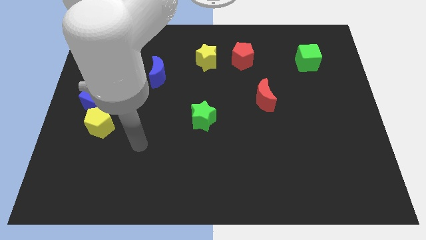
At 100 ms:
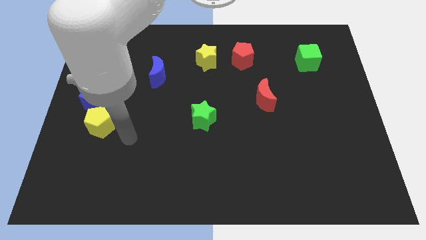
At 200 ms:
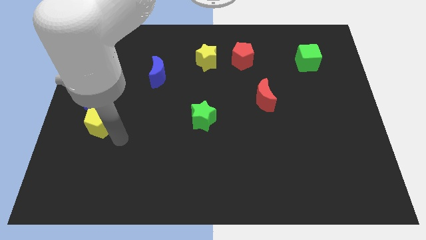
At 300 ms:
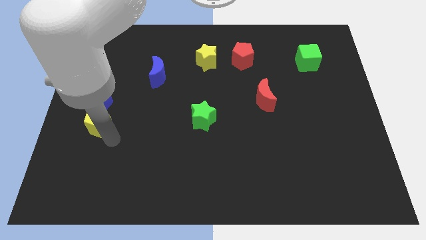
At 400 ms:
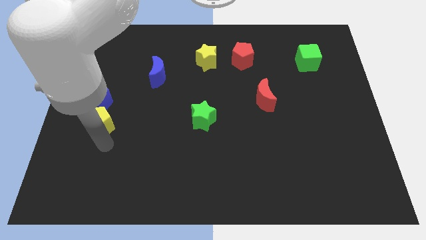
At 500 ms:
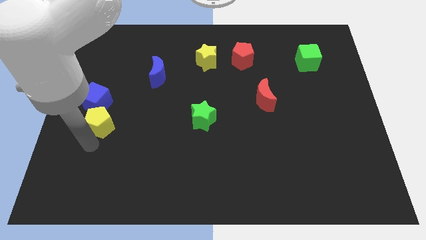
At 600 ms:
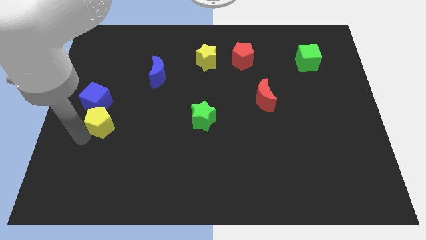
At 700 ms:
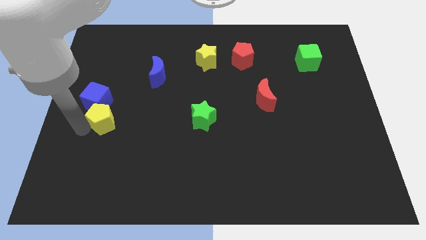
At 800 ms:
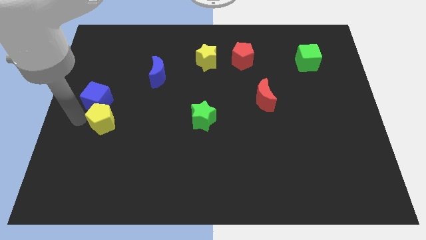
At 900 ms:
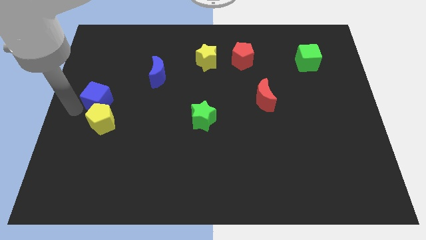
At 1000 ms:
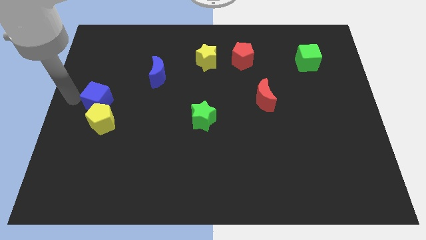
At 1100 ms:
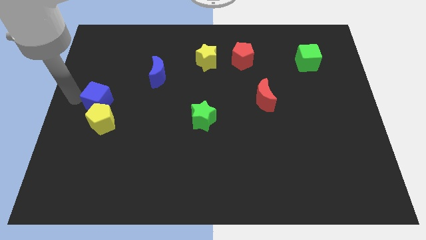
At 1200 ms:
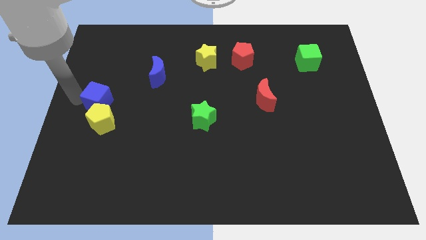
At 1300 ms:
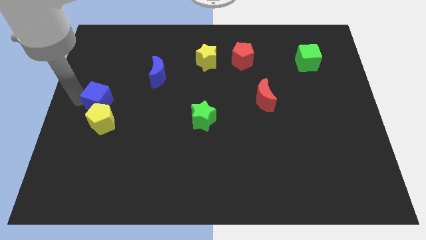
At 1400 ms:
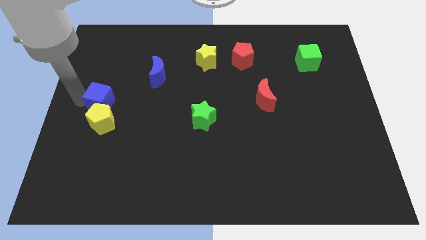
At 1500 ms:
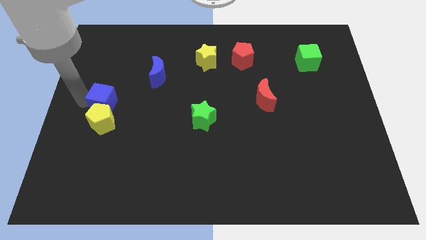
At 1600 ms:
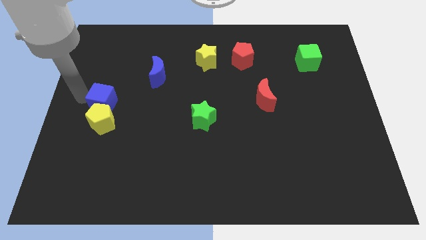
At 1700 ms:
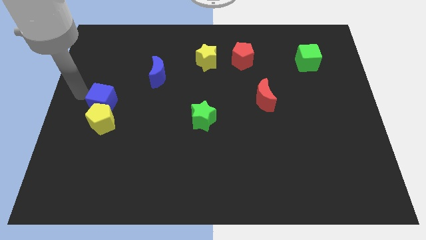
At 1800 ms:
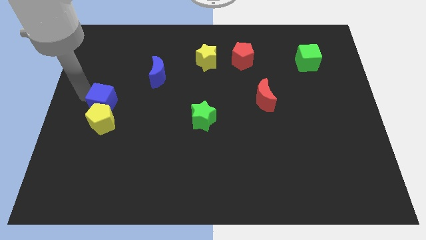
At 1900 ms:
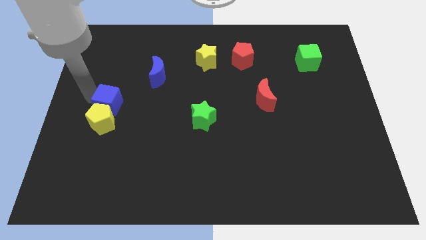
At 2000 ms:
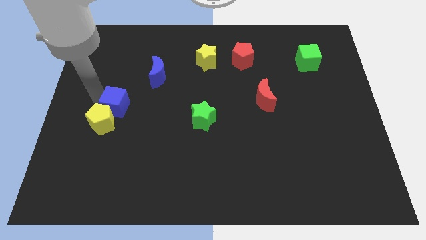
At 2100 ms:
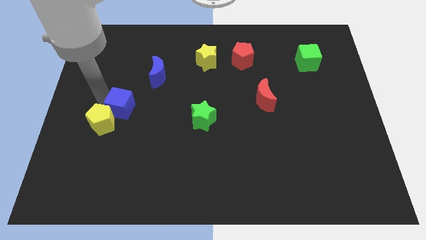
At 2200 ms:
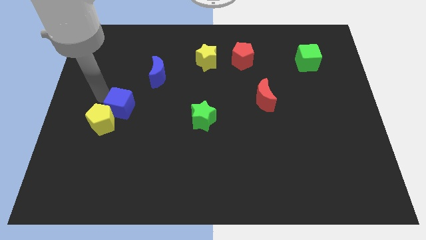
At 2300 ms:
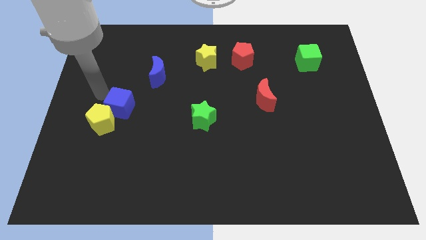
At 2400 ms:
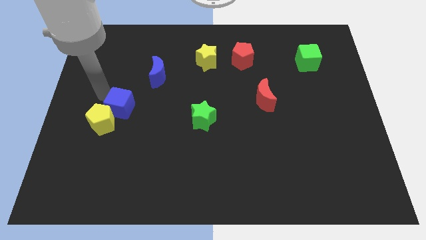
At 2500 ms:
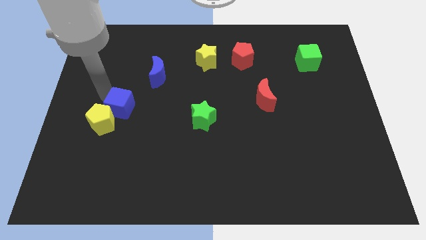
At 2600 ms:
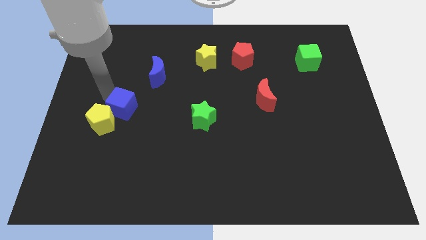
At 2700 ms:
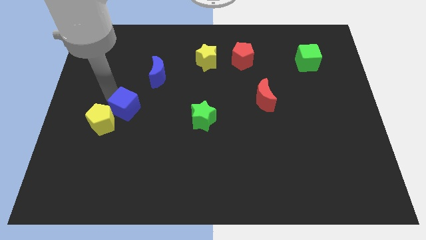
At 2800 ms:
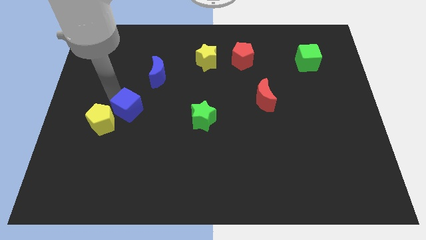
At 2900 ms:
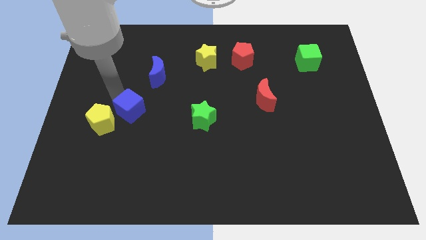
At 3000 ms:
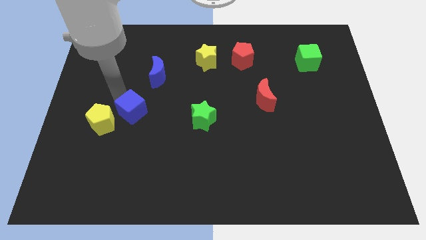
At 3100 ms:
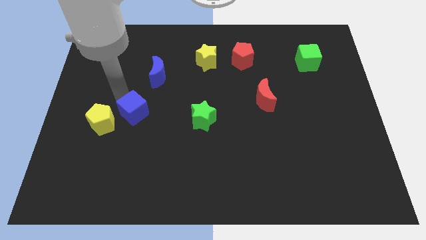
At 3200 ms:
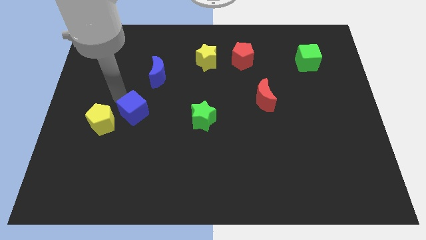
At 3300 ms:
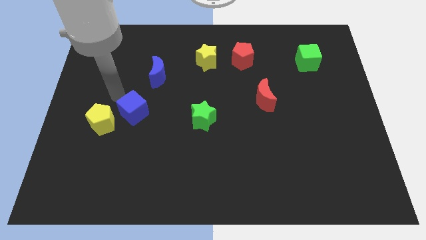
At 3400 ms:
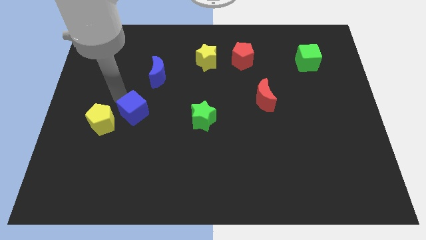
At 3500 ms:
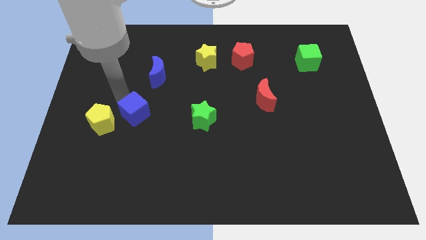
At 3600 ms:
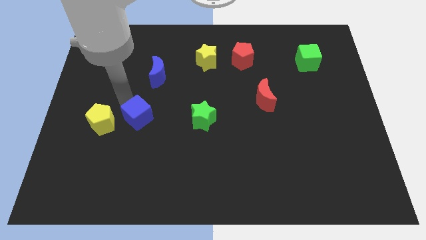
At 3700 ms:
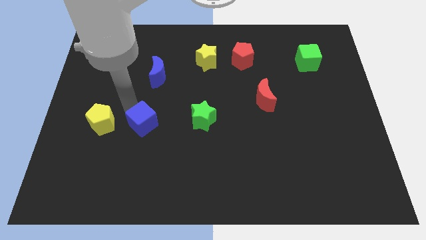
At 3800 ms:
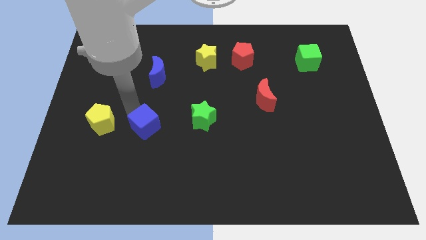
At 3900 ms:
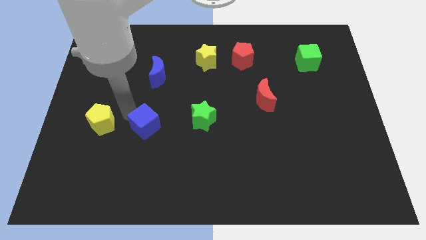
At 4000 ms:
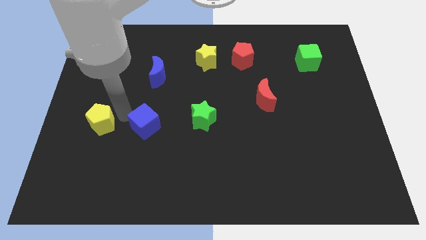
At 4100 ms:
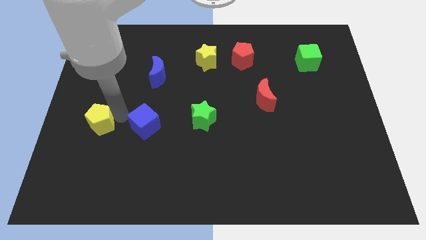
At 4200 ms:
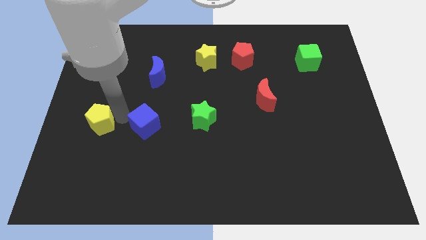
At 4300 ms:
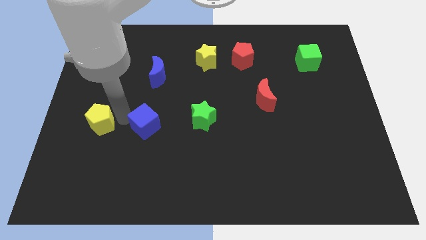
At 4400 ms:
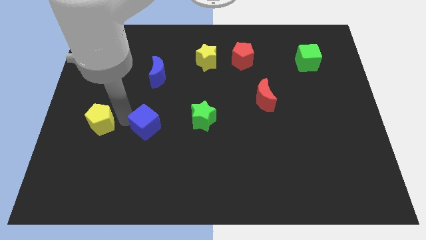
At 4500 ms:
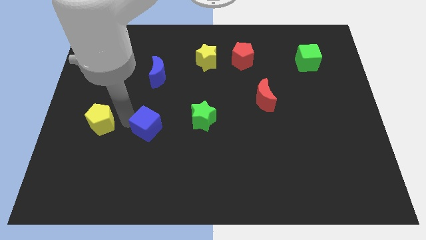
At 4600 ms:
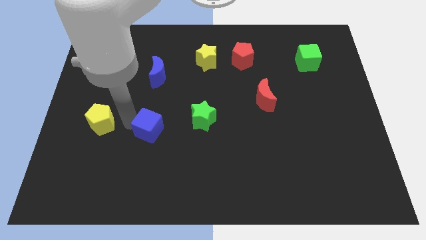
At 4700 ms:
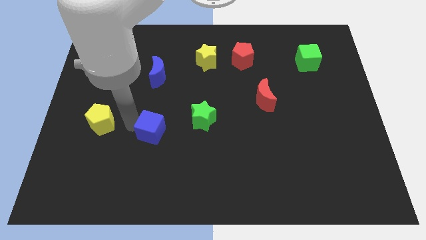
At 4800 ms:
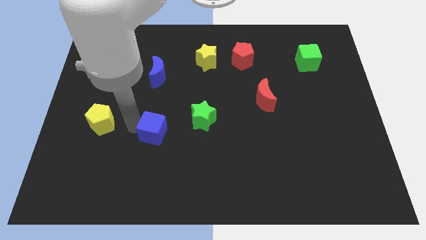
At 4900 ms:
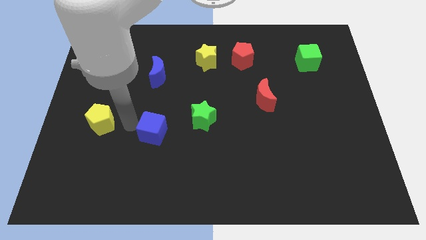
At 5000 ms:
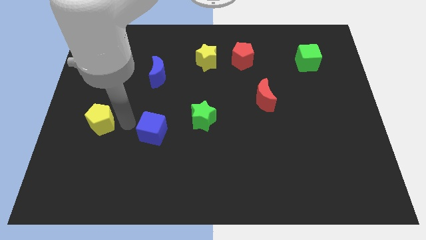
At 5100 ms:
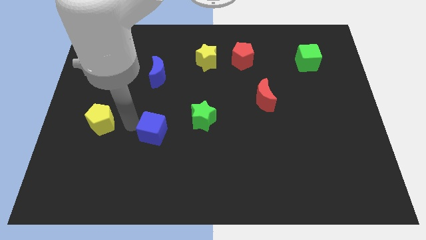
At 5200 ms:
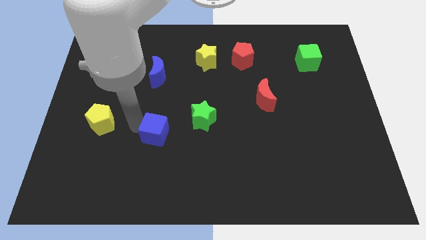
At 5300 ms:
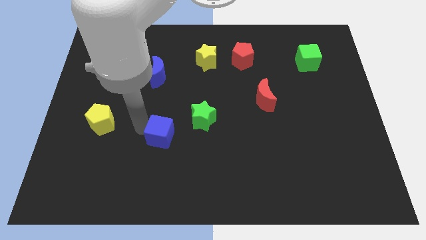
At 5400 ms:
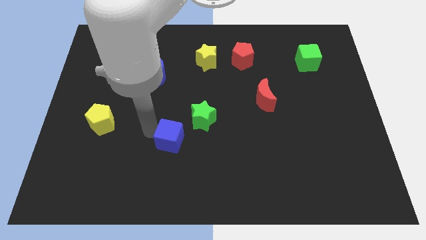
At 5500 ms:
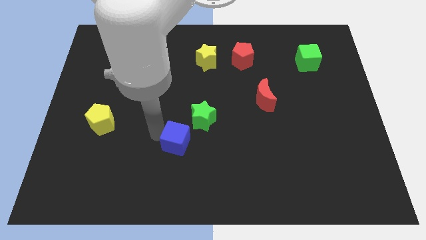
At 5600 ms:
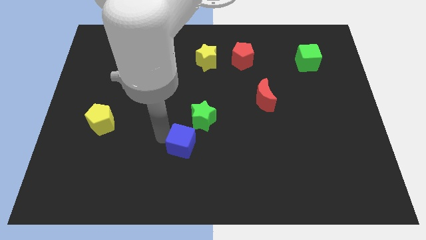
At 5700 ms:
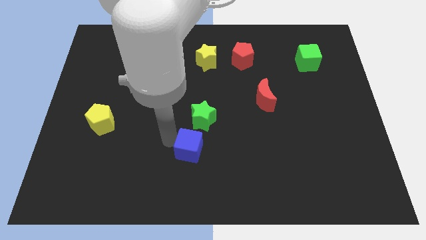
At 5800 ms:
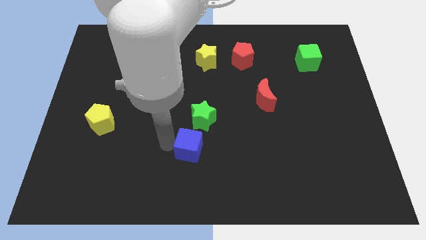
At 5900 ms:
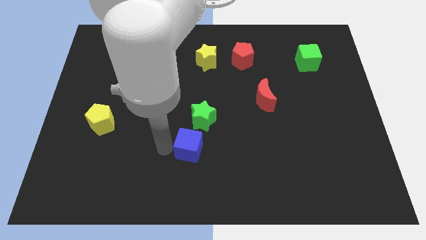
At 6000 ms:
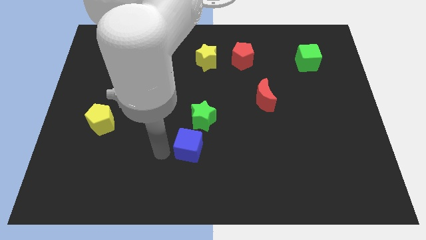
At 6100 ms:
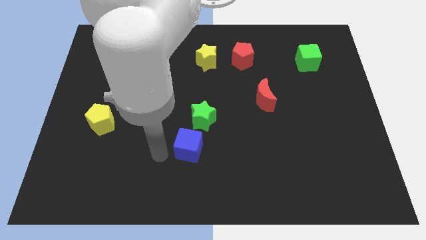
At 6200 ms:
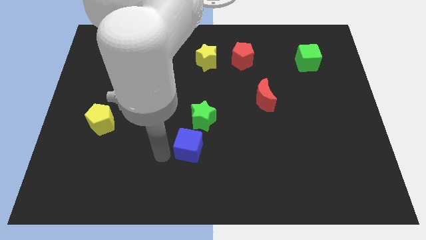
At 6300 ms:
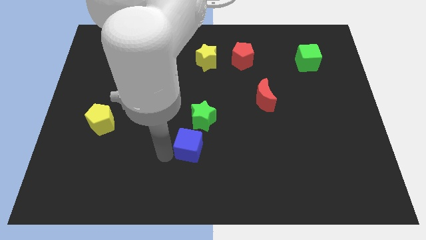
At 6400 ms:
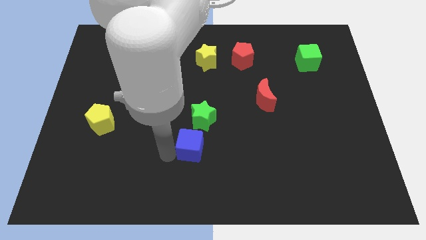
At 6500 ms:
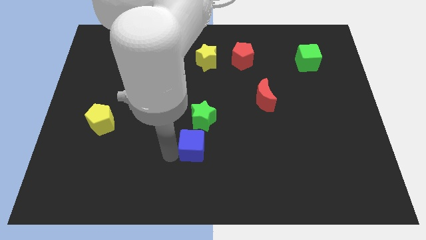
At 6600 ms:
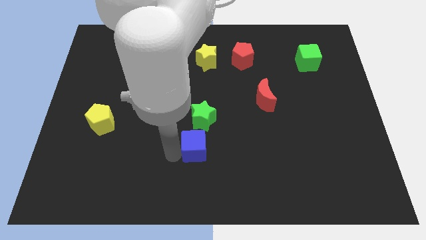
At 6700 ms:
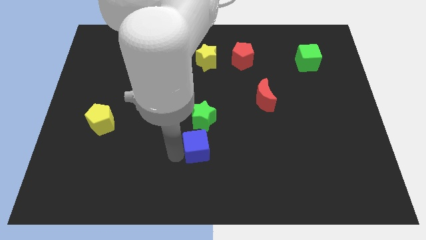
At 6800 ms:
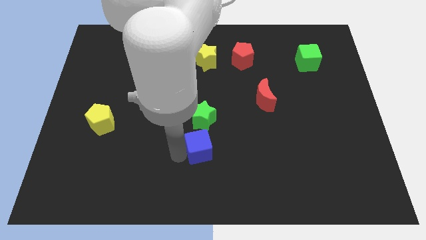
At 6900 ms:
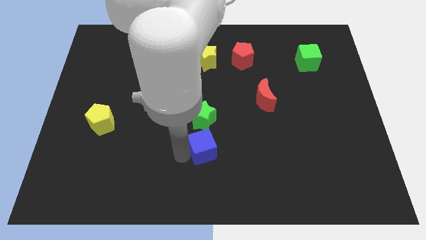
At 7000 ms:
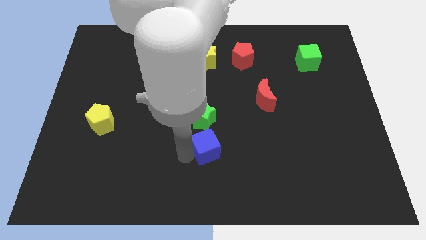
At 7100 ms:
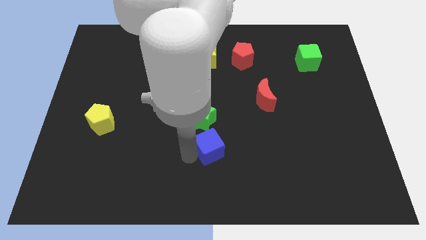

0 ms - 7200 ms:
slide the blue cube diagonally down and to the right of the green star
